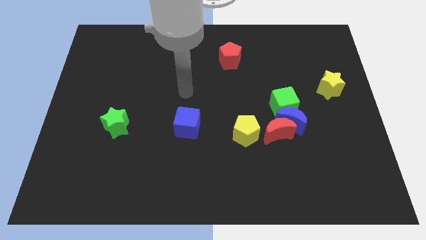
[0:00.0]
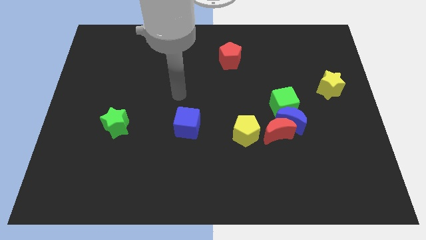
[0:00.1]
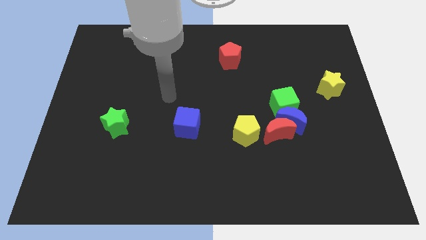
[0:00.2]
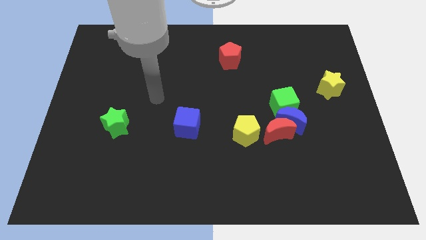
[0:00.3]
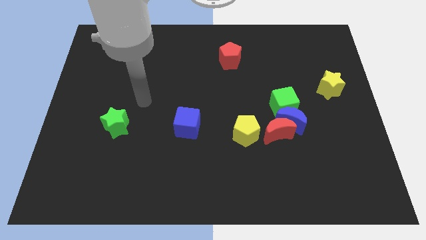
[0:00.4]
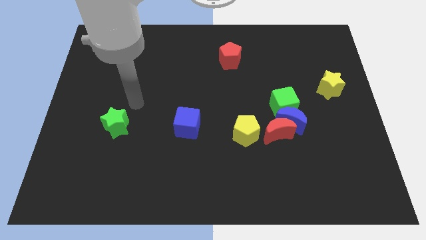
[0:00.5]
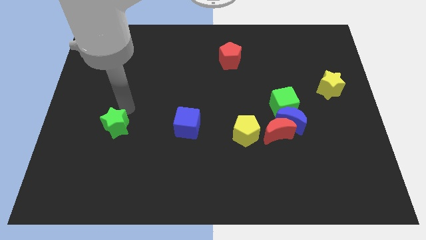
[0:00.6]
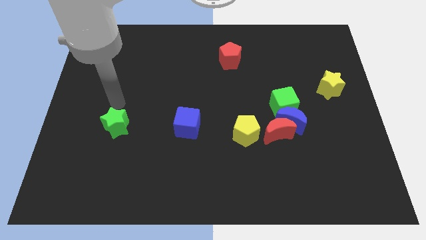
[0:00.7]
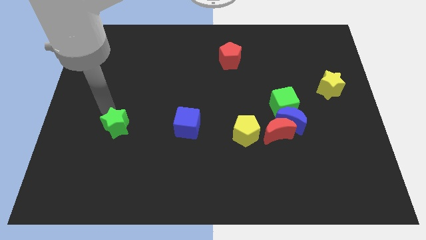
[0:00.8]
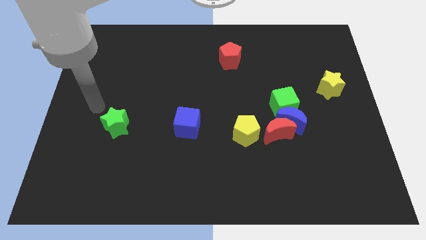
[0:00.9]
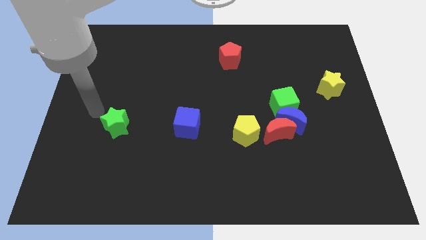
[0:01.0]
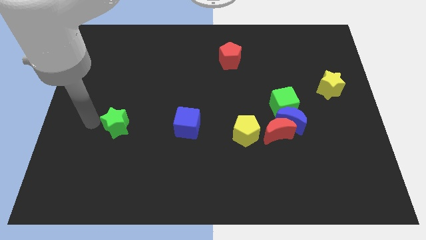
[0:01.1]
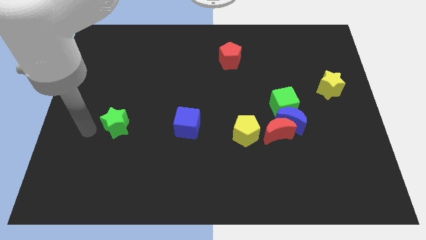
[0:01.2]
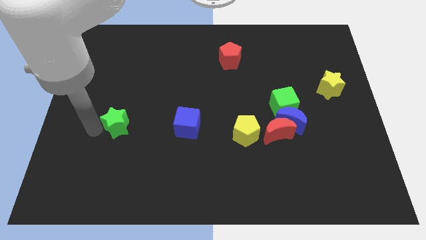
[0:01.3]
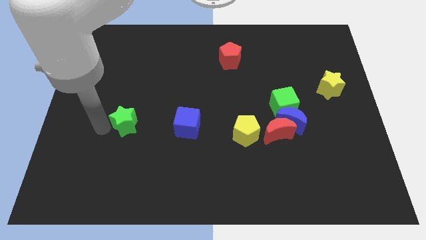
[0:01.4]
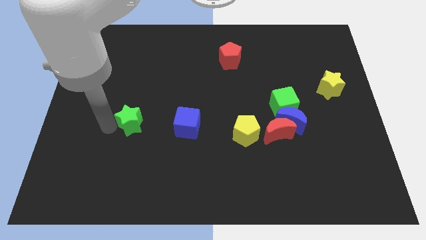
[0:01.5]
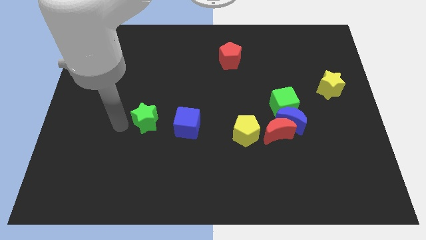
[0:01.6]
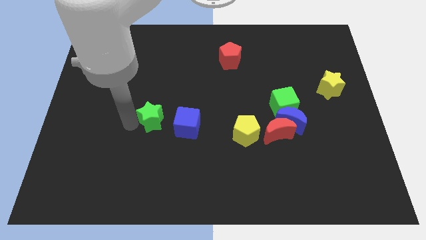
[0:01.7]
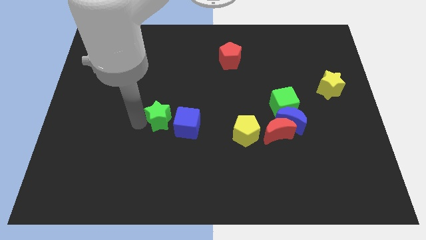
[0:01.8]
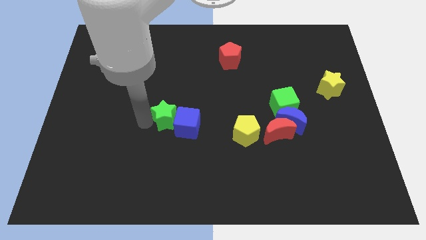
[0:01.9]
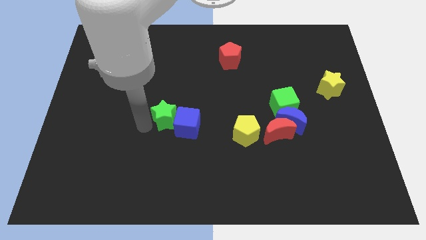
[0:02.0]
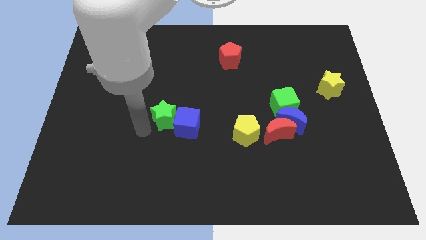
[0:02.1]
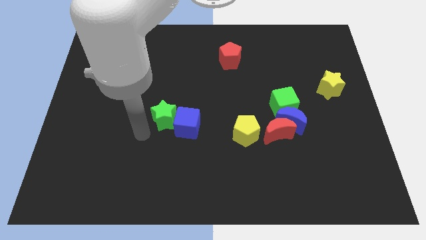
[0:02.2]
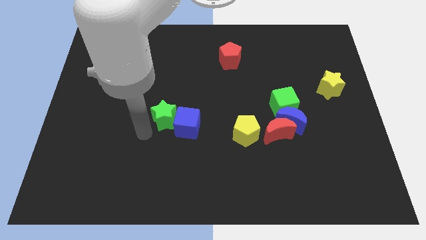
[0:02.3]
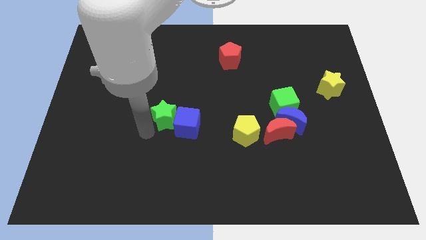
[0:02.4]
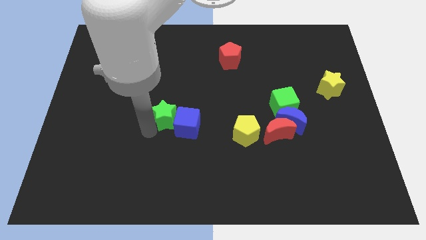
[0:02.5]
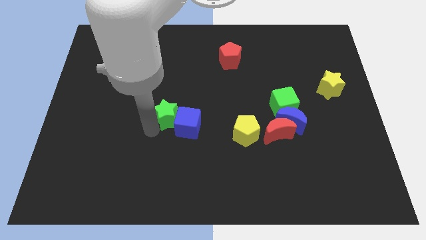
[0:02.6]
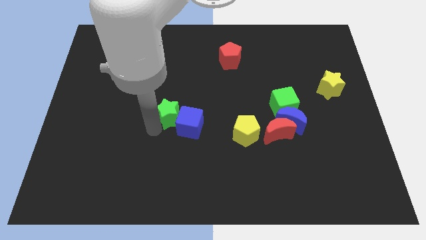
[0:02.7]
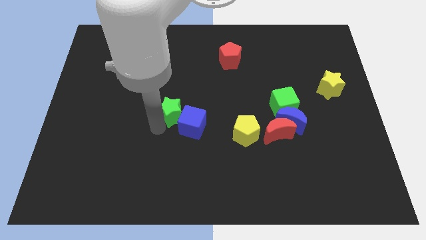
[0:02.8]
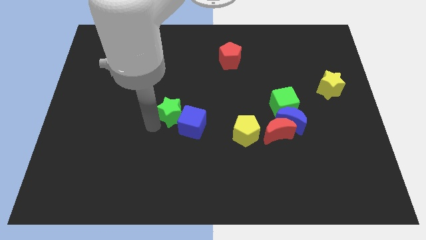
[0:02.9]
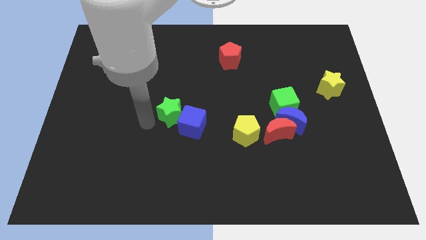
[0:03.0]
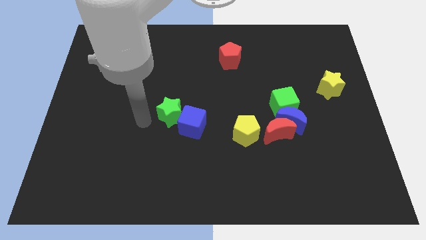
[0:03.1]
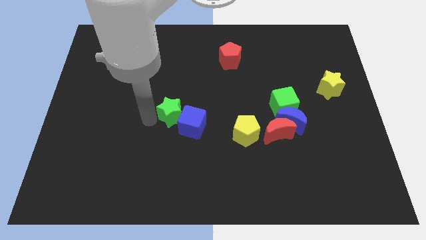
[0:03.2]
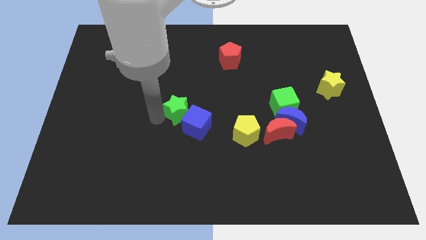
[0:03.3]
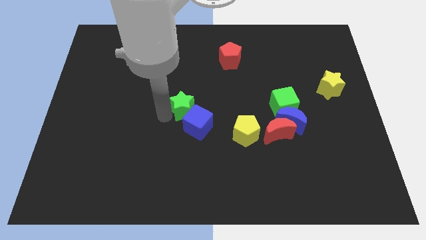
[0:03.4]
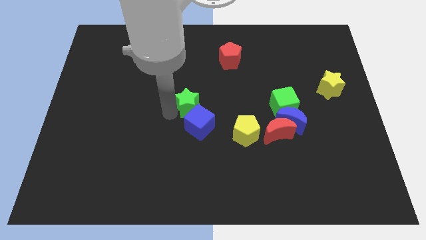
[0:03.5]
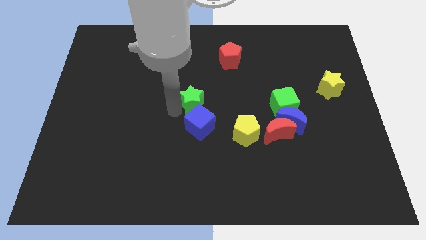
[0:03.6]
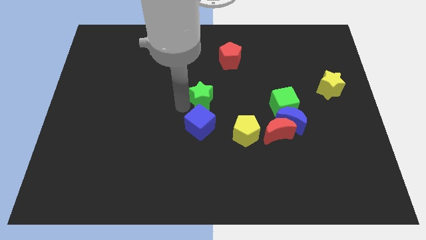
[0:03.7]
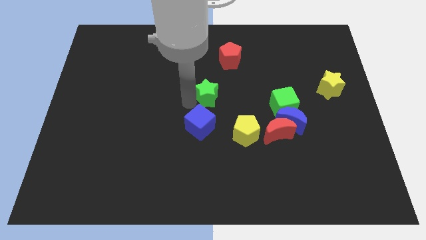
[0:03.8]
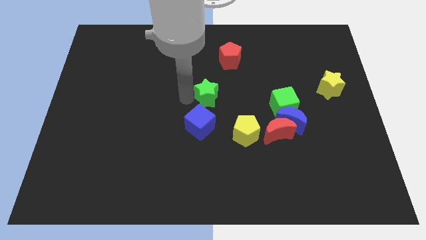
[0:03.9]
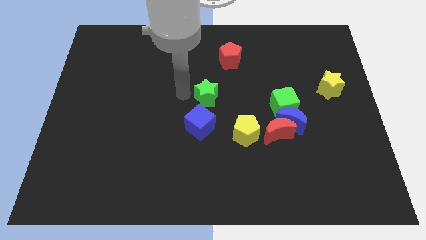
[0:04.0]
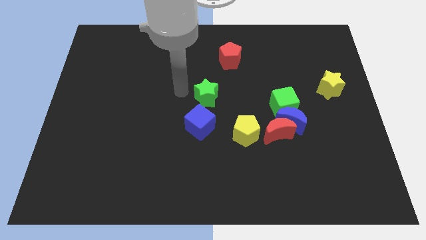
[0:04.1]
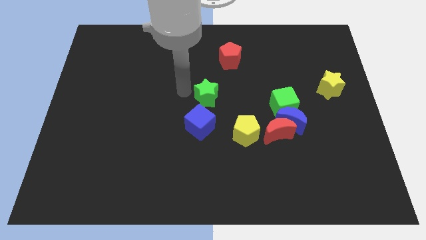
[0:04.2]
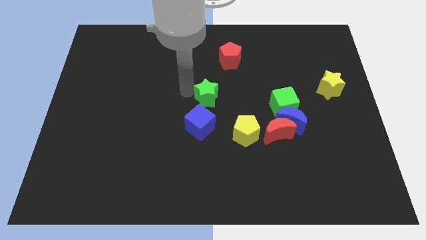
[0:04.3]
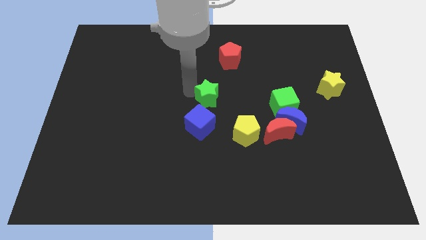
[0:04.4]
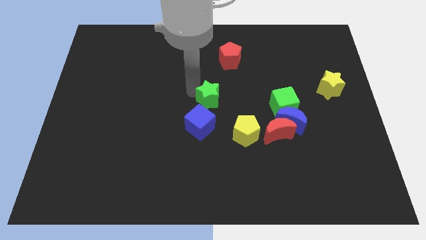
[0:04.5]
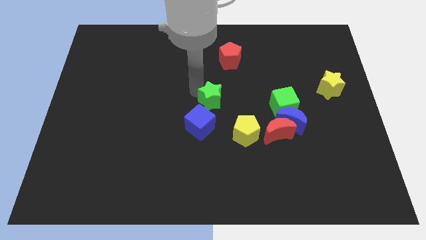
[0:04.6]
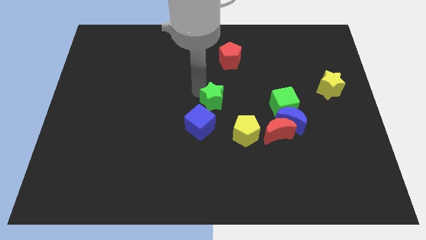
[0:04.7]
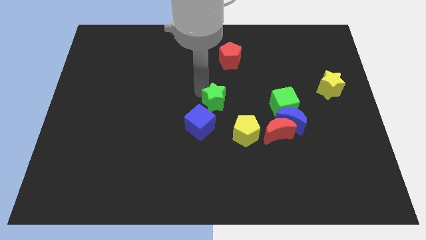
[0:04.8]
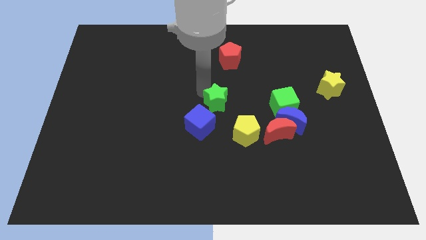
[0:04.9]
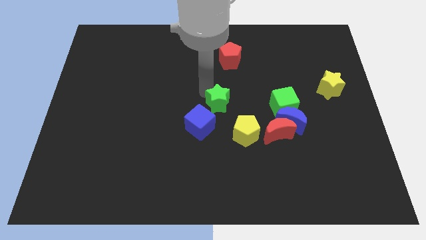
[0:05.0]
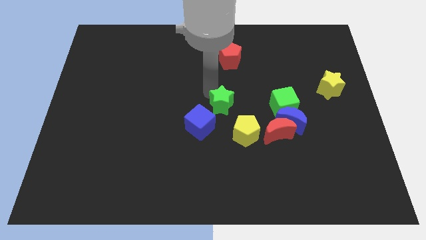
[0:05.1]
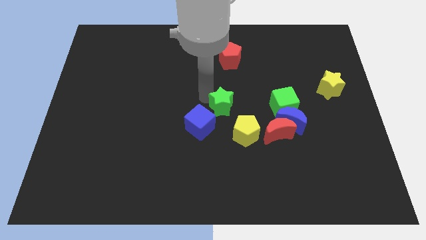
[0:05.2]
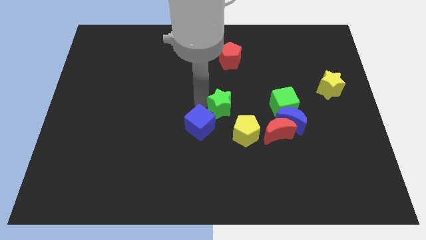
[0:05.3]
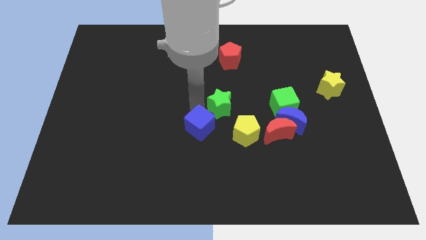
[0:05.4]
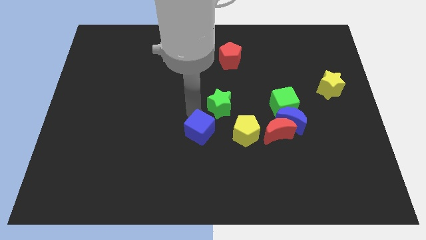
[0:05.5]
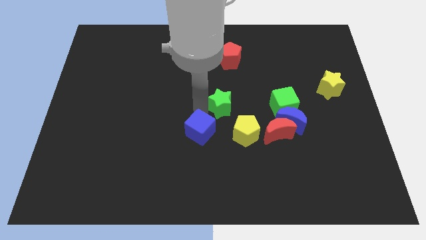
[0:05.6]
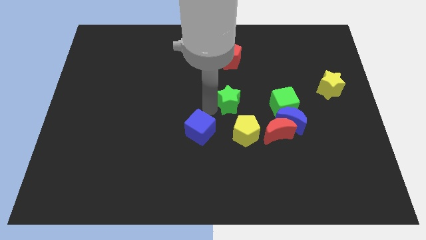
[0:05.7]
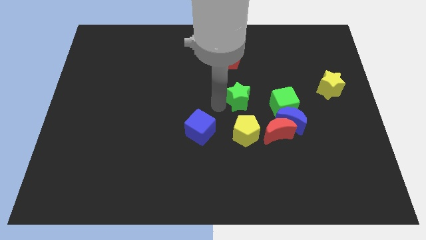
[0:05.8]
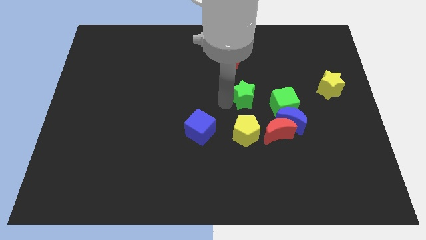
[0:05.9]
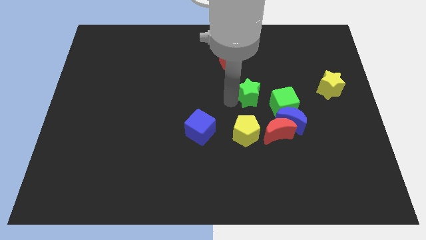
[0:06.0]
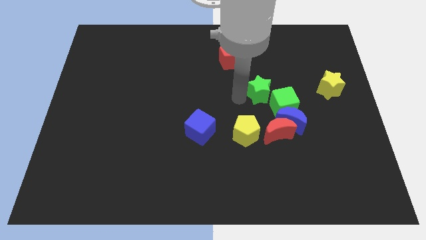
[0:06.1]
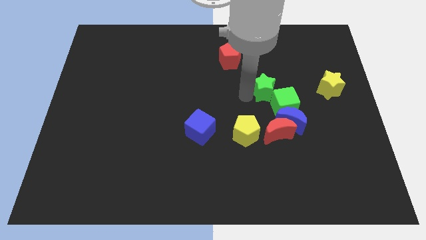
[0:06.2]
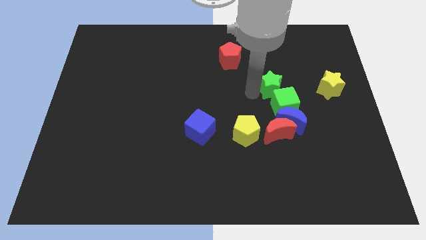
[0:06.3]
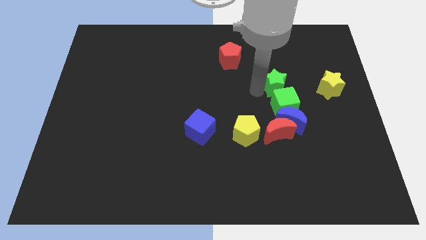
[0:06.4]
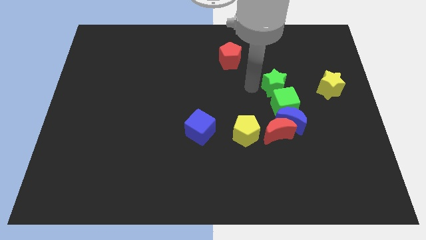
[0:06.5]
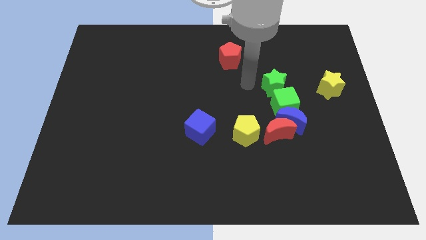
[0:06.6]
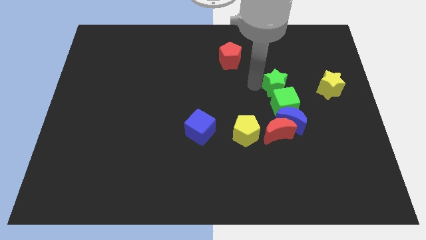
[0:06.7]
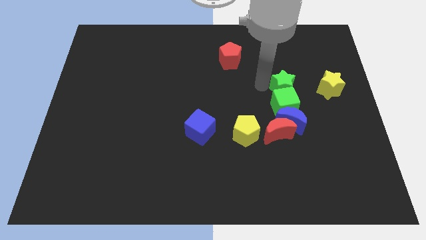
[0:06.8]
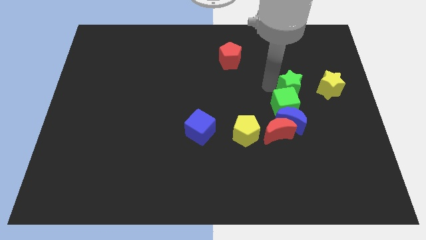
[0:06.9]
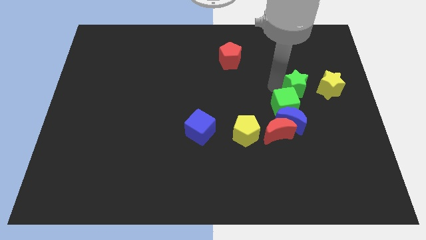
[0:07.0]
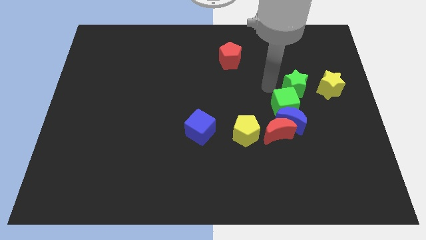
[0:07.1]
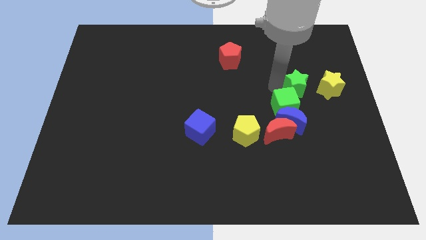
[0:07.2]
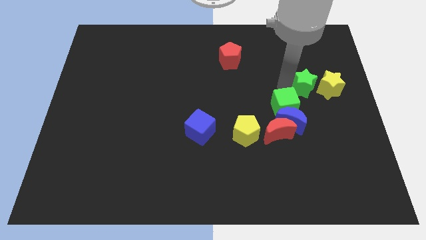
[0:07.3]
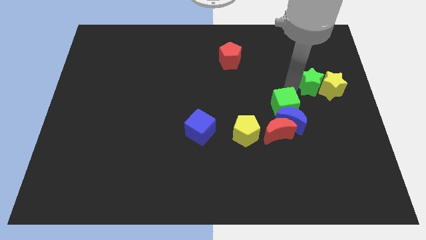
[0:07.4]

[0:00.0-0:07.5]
move the green star towards the yellow star
